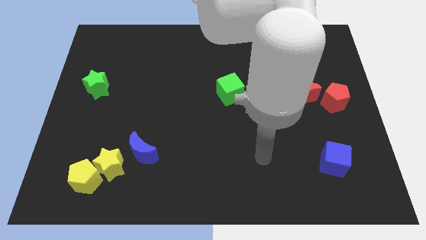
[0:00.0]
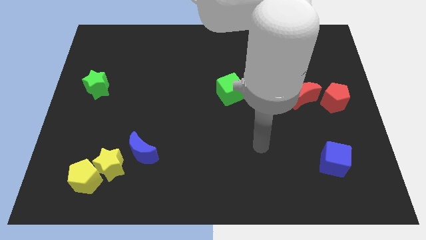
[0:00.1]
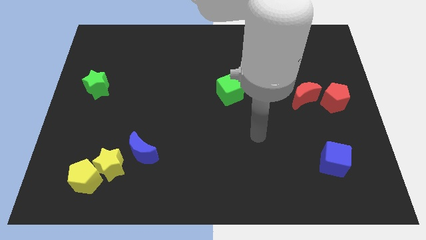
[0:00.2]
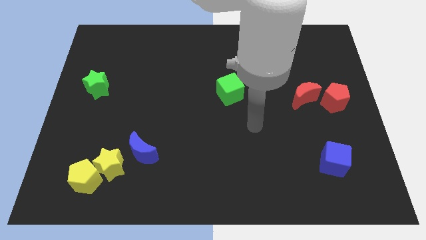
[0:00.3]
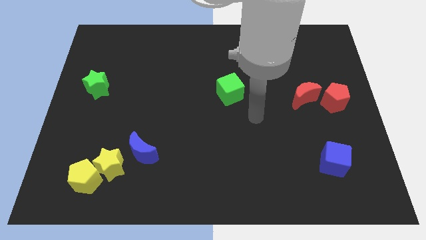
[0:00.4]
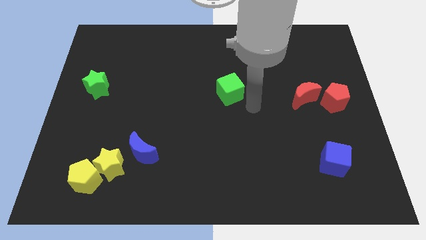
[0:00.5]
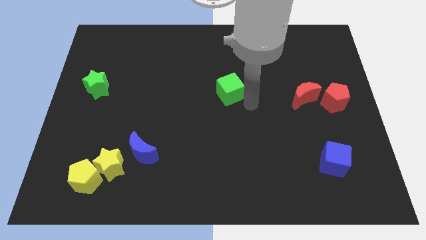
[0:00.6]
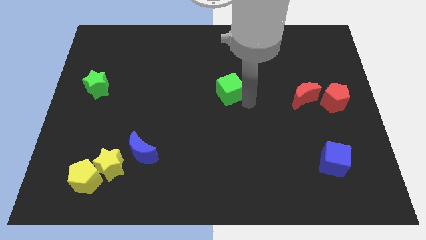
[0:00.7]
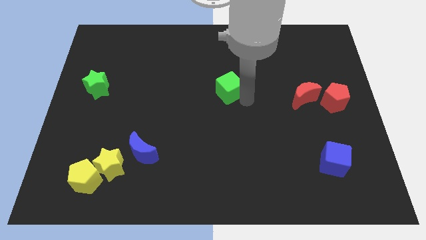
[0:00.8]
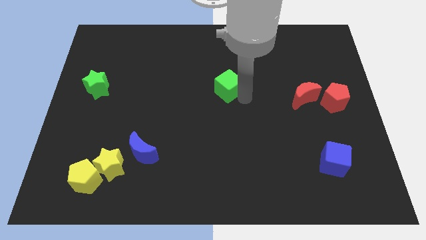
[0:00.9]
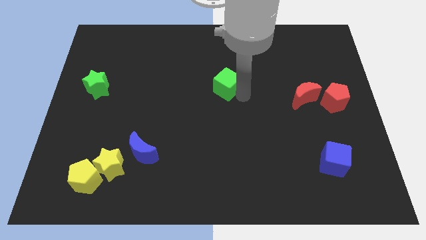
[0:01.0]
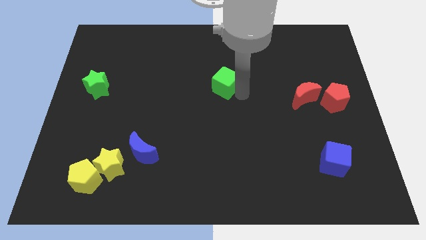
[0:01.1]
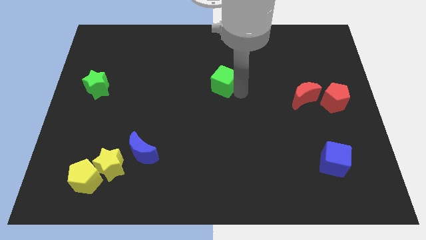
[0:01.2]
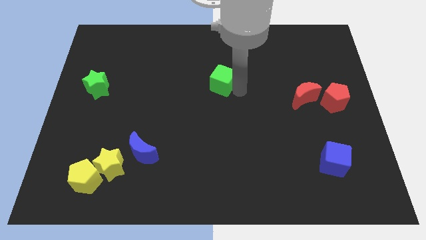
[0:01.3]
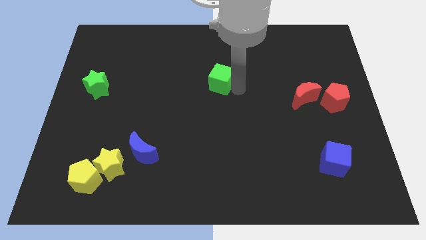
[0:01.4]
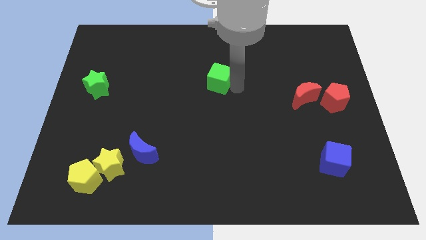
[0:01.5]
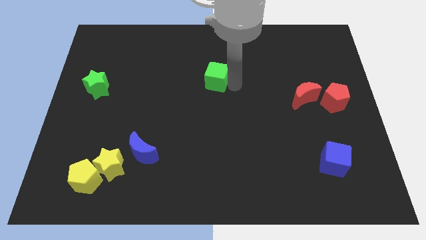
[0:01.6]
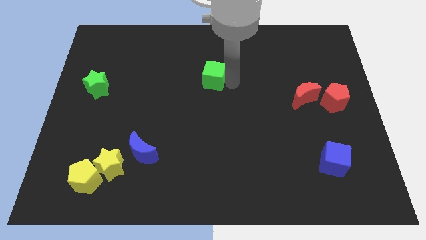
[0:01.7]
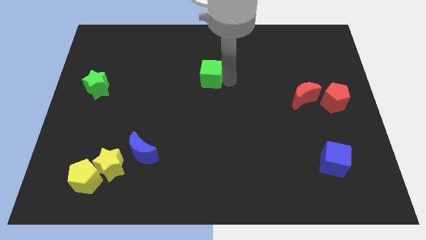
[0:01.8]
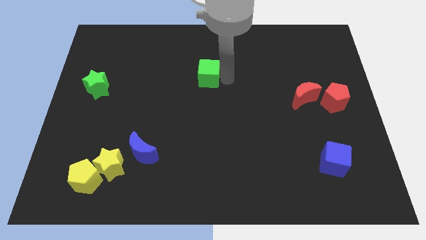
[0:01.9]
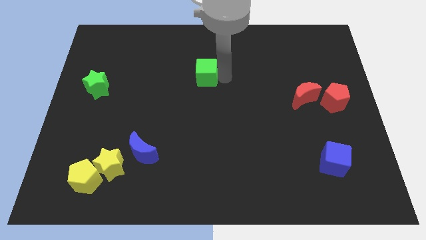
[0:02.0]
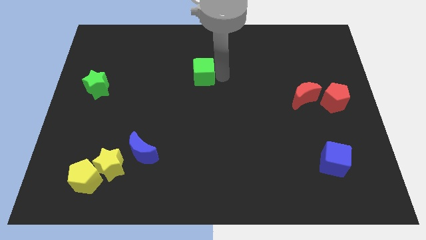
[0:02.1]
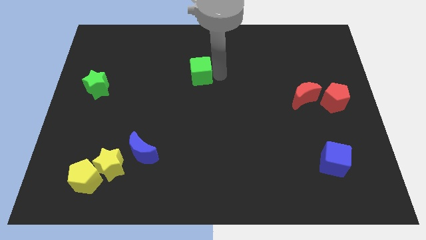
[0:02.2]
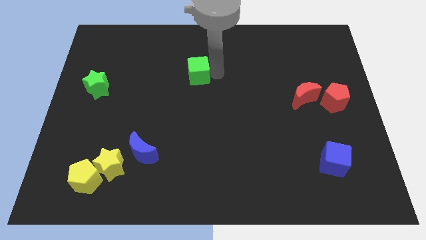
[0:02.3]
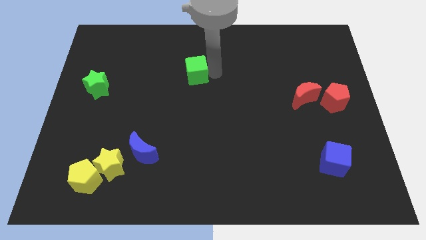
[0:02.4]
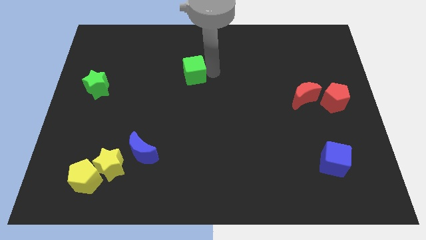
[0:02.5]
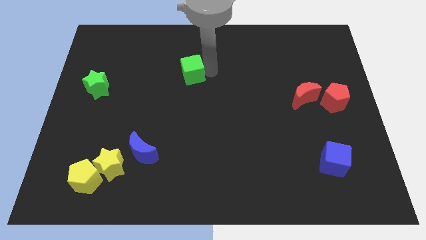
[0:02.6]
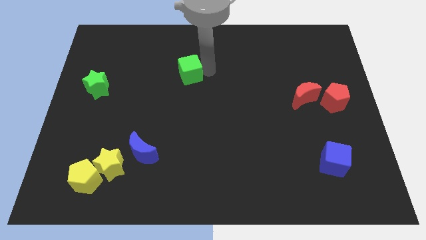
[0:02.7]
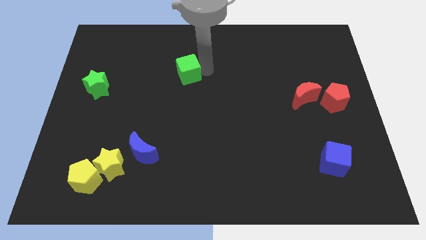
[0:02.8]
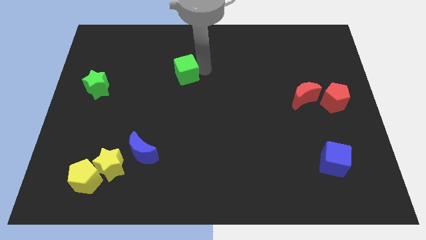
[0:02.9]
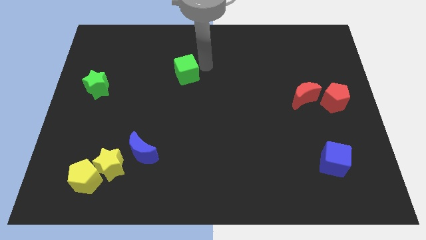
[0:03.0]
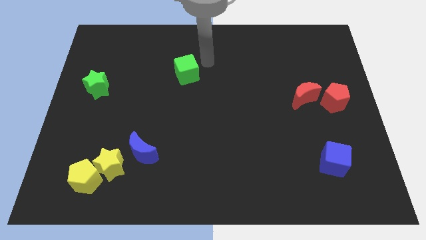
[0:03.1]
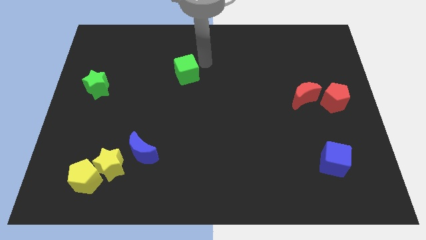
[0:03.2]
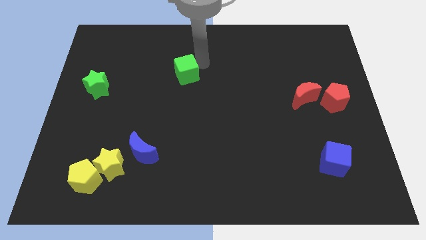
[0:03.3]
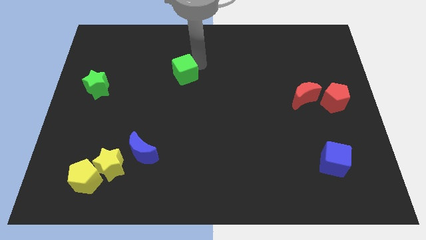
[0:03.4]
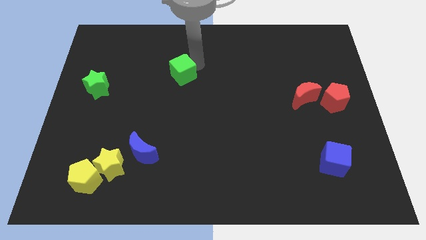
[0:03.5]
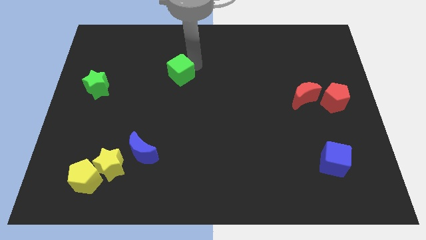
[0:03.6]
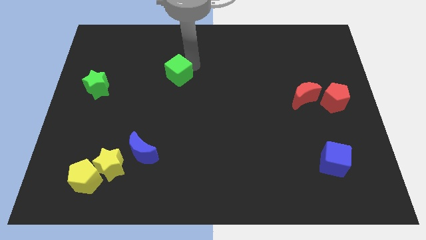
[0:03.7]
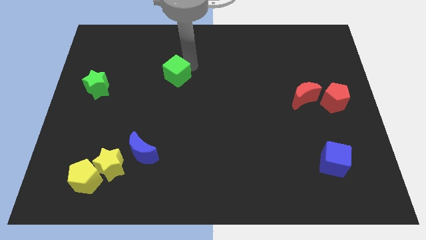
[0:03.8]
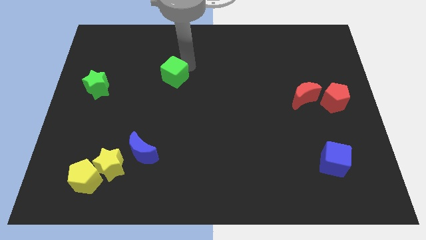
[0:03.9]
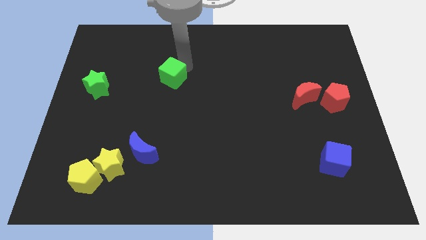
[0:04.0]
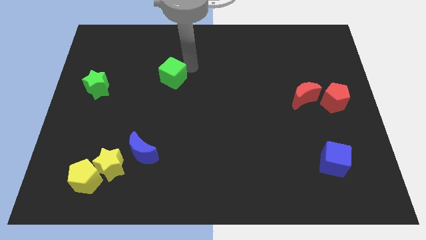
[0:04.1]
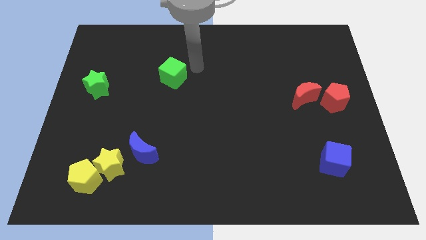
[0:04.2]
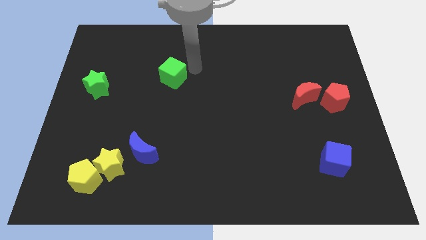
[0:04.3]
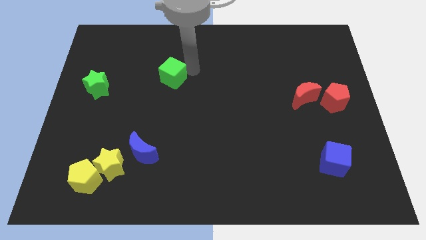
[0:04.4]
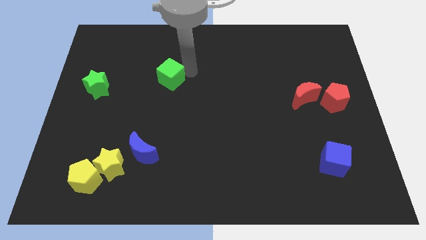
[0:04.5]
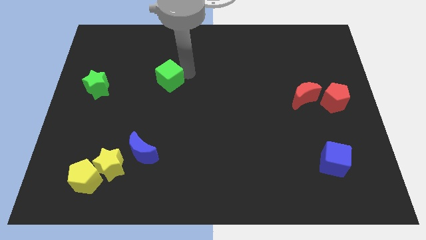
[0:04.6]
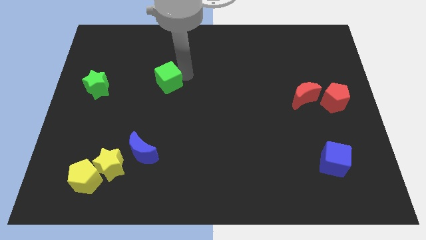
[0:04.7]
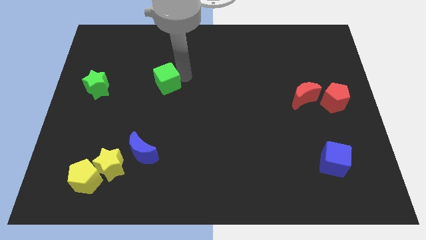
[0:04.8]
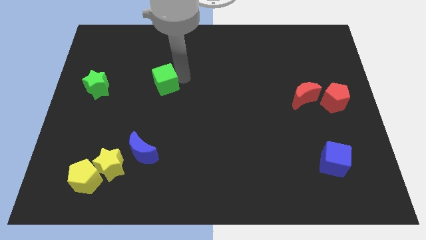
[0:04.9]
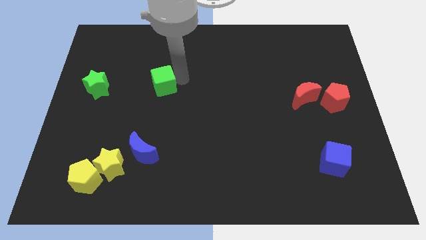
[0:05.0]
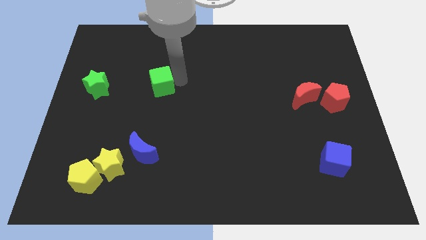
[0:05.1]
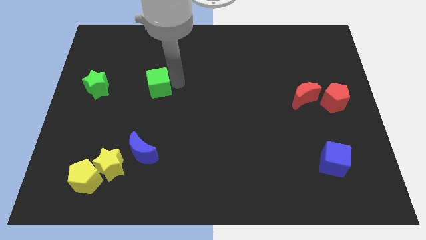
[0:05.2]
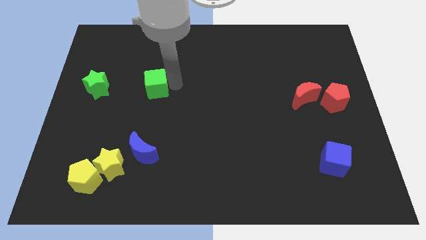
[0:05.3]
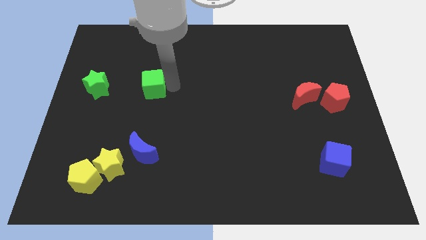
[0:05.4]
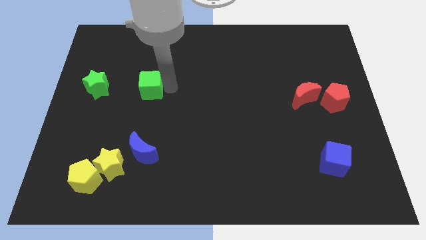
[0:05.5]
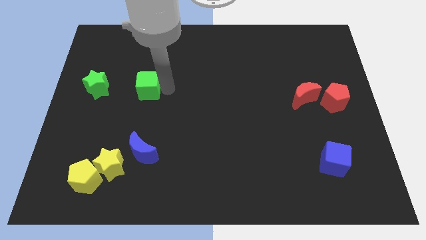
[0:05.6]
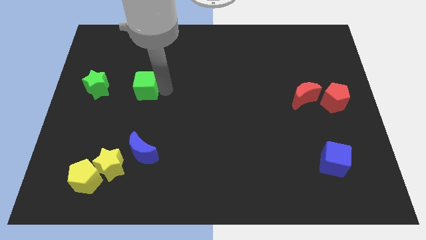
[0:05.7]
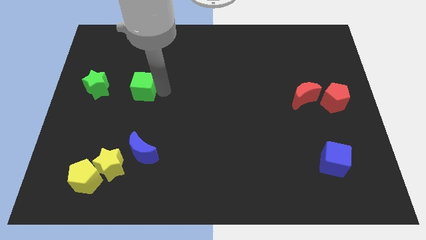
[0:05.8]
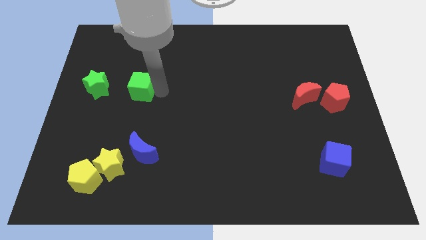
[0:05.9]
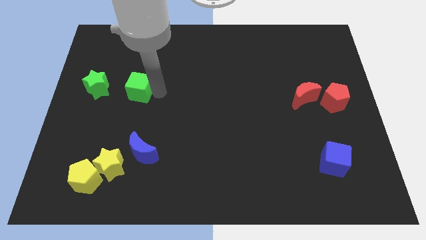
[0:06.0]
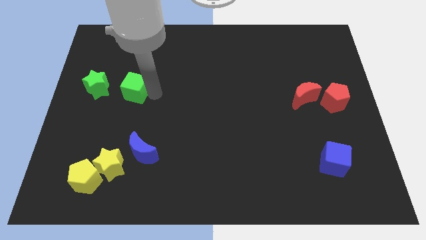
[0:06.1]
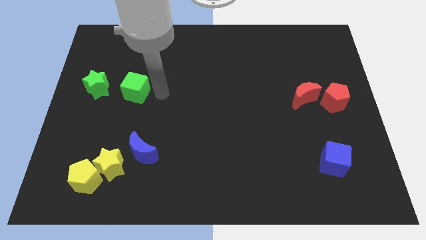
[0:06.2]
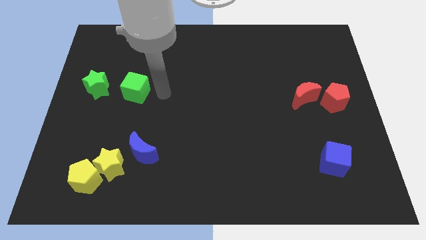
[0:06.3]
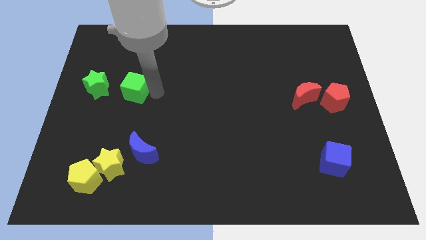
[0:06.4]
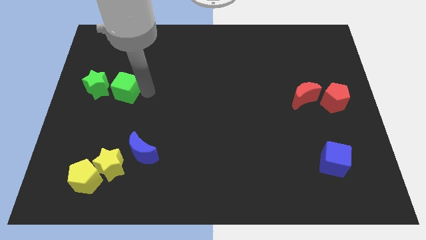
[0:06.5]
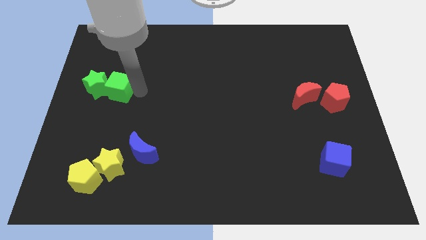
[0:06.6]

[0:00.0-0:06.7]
push the green cube close to the green star

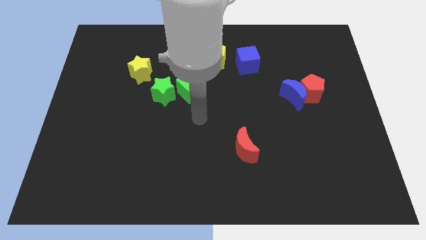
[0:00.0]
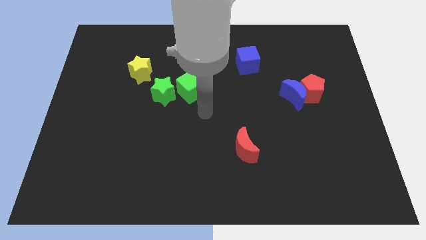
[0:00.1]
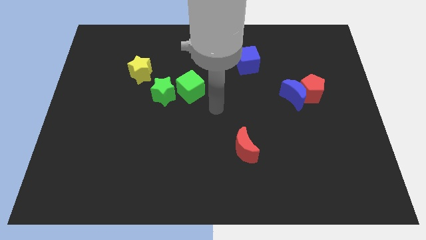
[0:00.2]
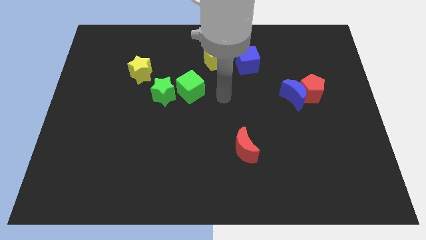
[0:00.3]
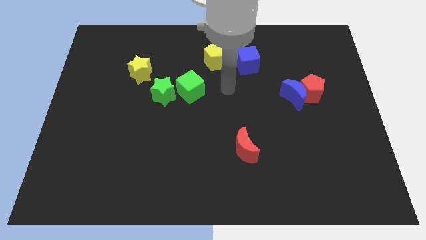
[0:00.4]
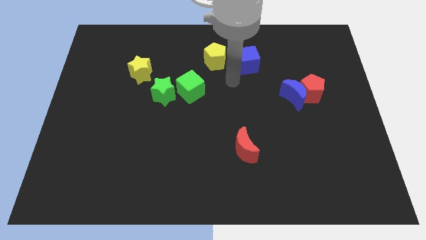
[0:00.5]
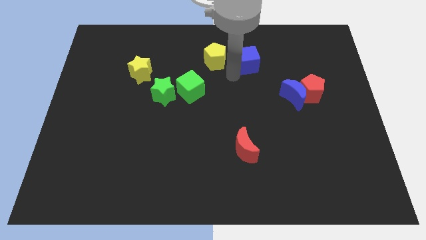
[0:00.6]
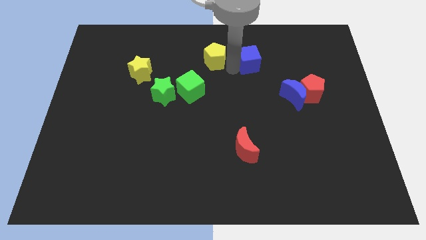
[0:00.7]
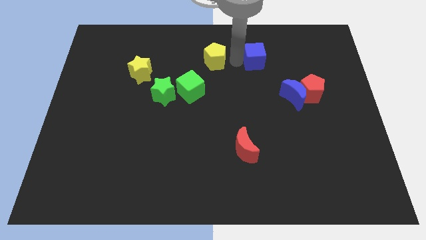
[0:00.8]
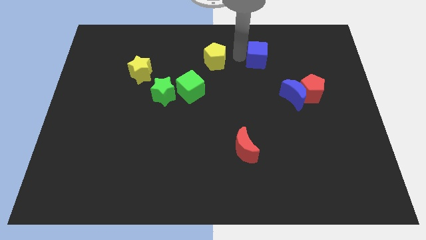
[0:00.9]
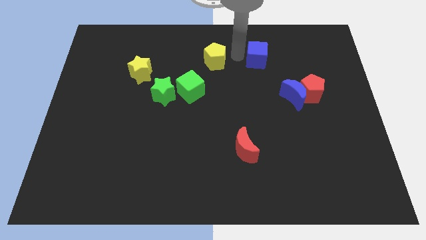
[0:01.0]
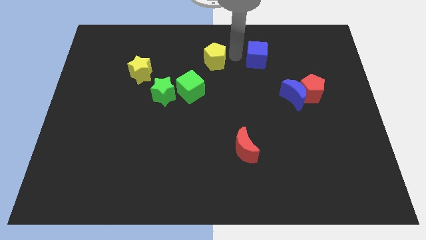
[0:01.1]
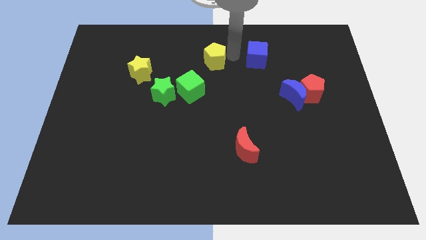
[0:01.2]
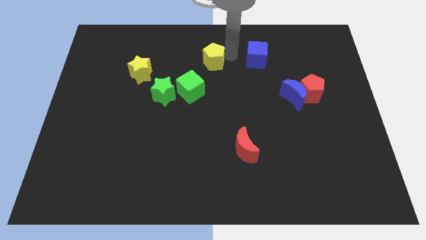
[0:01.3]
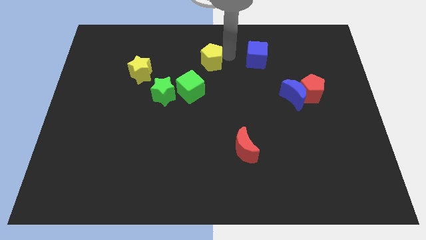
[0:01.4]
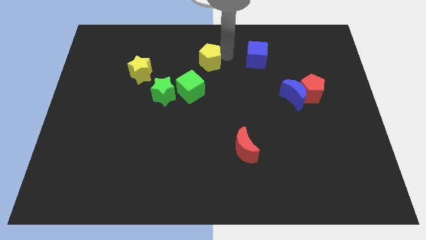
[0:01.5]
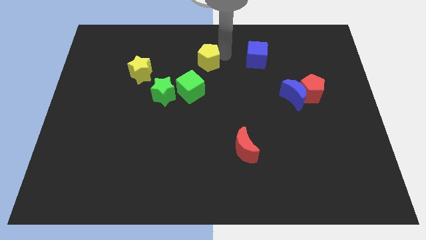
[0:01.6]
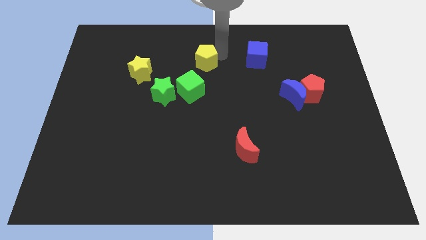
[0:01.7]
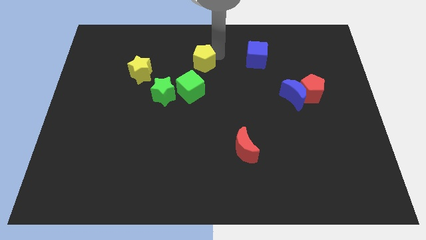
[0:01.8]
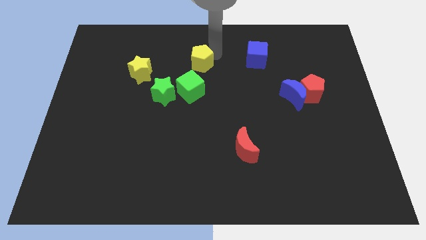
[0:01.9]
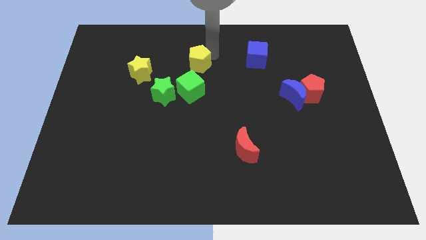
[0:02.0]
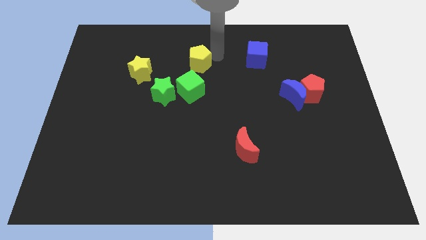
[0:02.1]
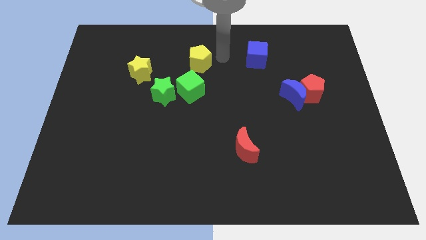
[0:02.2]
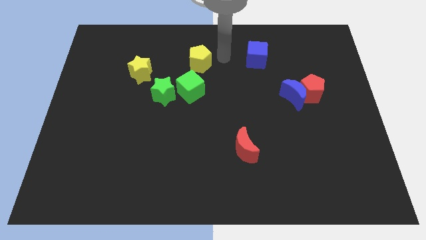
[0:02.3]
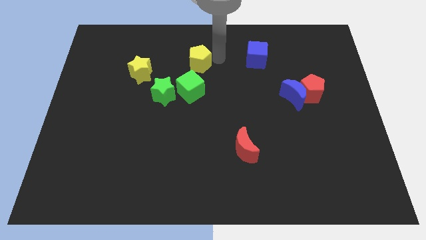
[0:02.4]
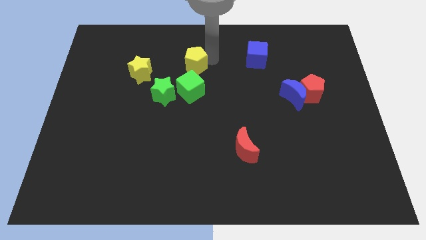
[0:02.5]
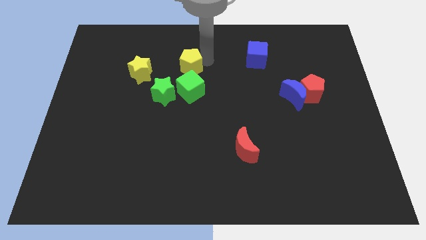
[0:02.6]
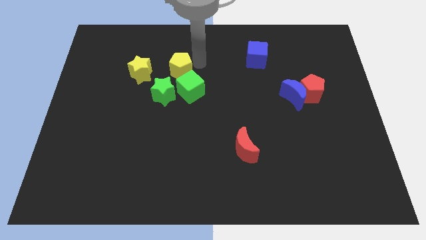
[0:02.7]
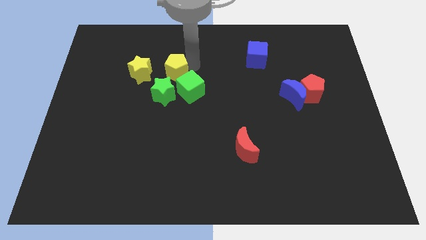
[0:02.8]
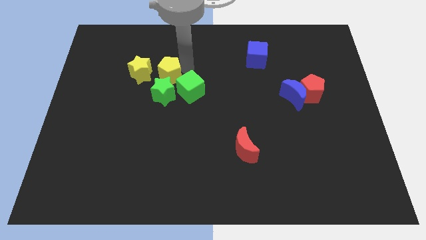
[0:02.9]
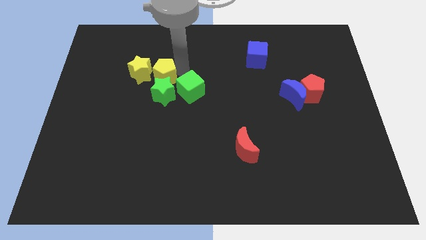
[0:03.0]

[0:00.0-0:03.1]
push the yellow pentagon towards the yellow star
